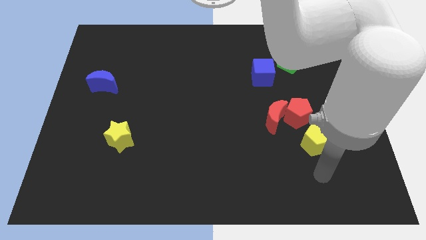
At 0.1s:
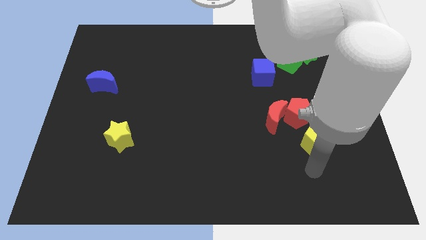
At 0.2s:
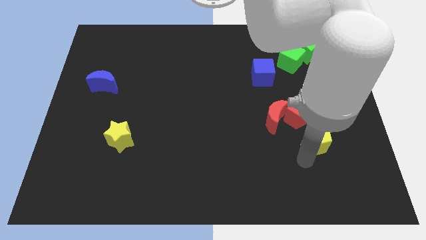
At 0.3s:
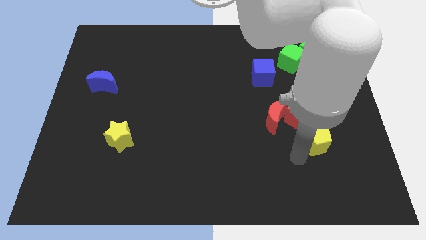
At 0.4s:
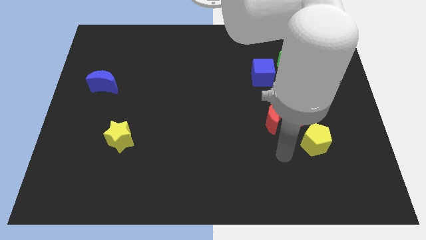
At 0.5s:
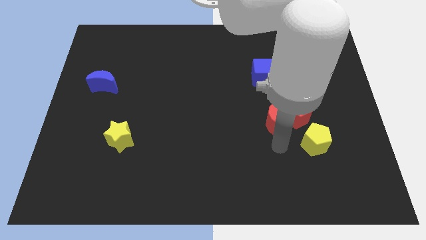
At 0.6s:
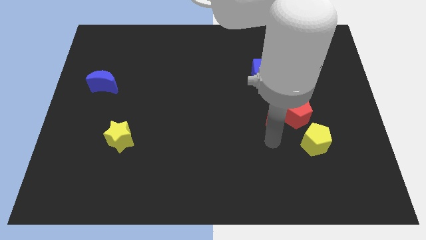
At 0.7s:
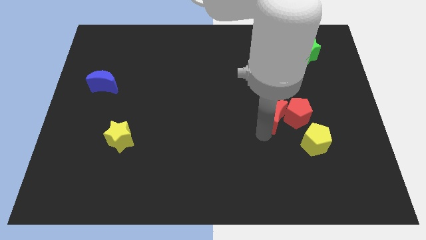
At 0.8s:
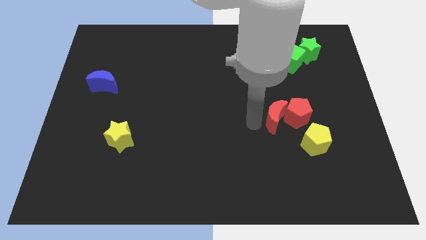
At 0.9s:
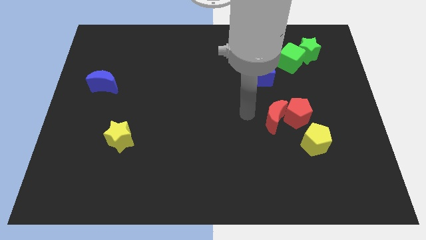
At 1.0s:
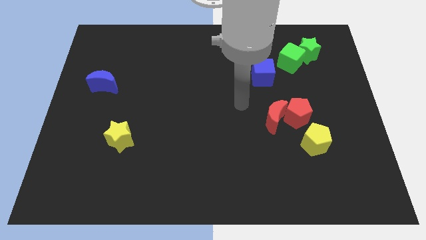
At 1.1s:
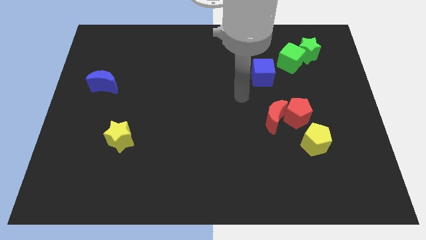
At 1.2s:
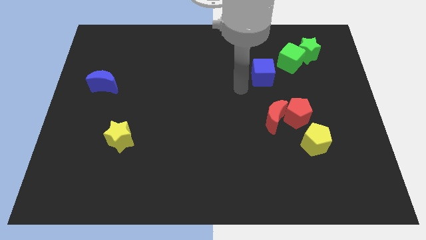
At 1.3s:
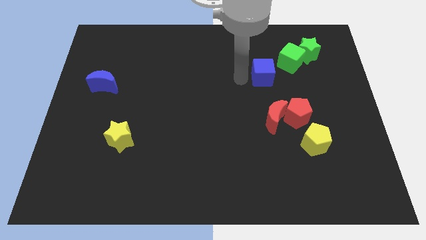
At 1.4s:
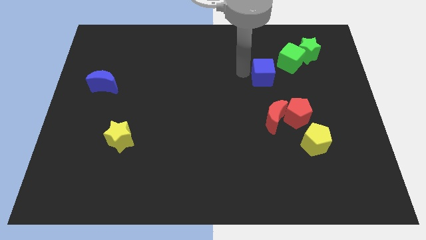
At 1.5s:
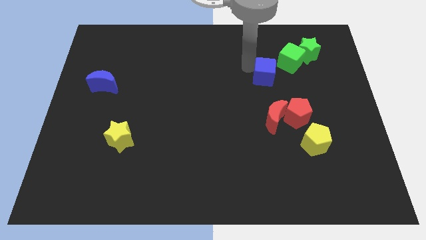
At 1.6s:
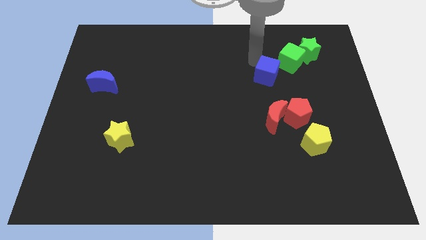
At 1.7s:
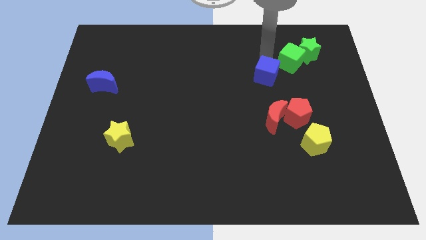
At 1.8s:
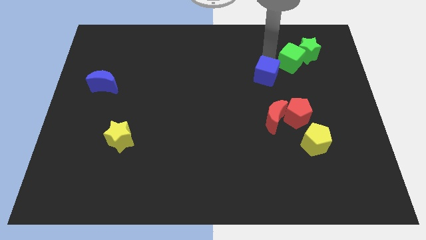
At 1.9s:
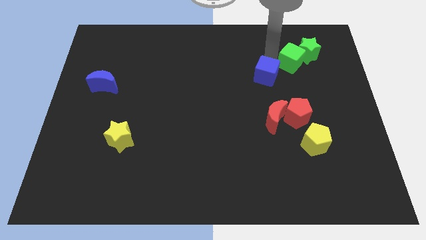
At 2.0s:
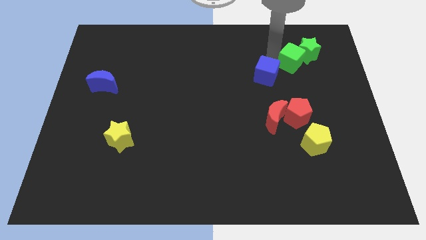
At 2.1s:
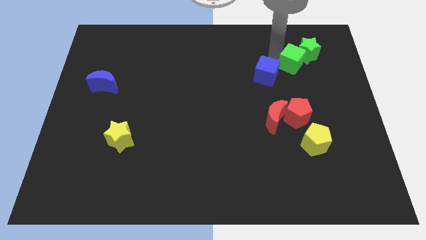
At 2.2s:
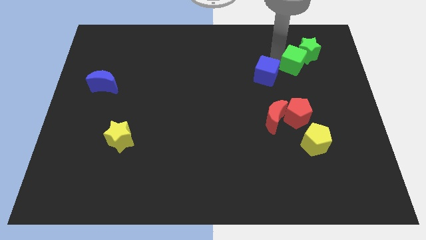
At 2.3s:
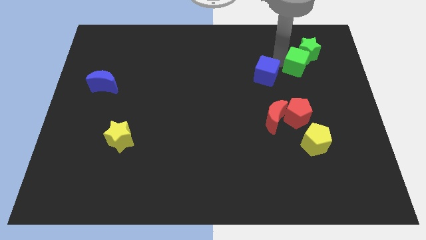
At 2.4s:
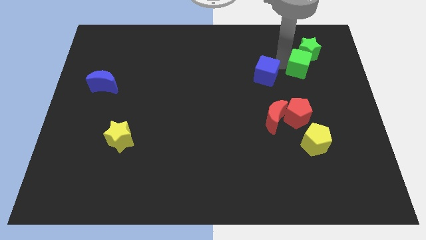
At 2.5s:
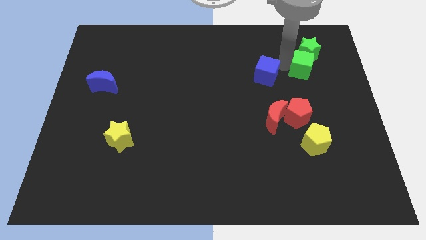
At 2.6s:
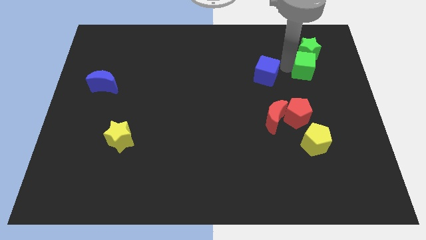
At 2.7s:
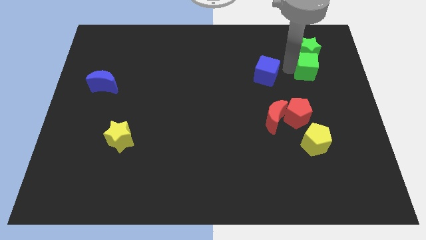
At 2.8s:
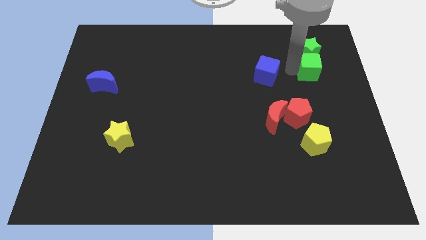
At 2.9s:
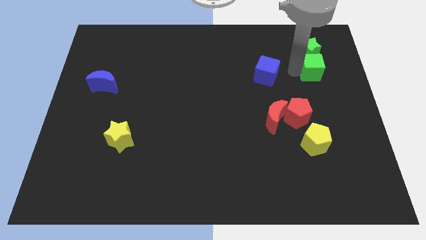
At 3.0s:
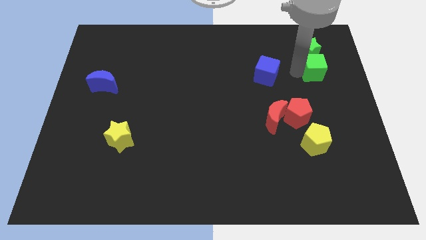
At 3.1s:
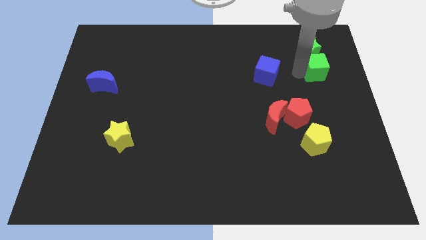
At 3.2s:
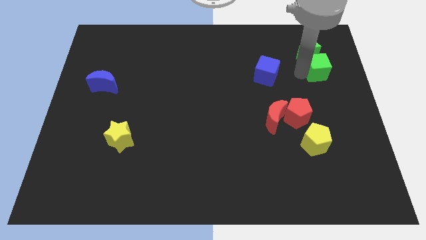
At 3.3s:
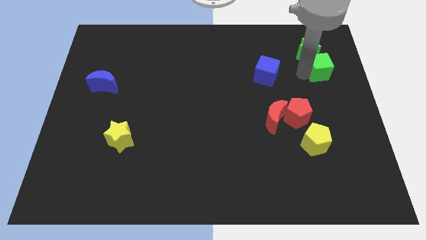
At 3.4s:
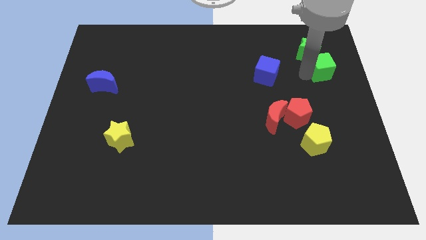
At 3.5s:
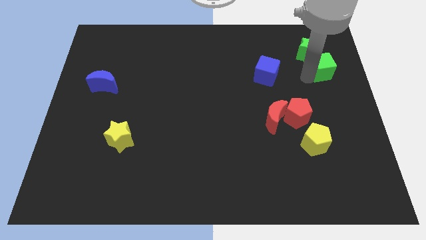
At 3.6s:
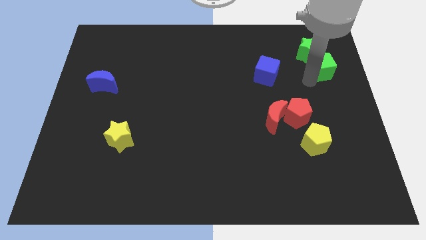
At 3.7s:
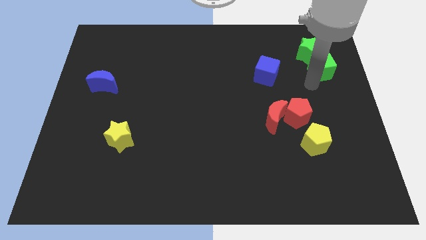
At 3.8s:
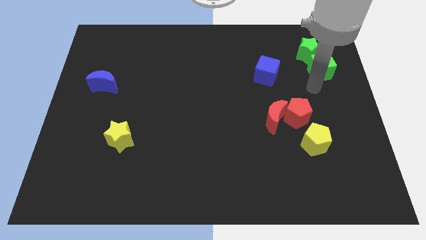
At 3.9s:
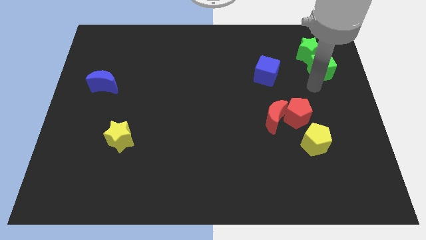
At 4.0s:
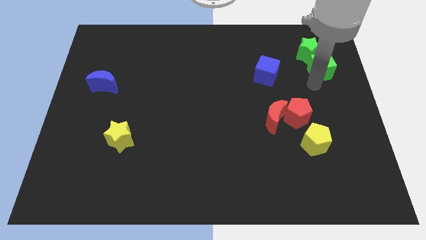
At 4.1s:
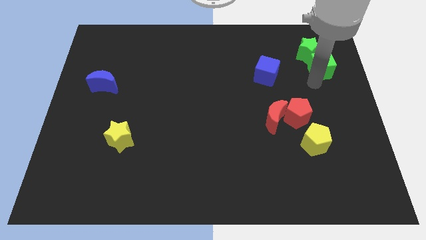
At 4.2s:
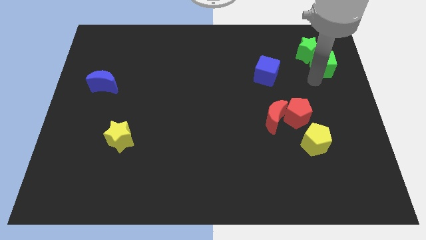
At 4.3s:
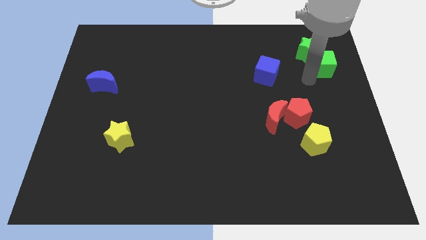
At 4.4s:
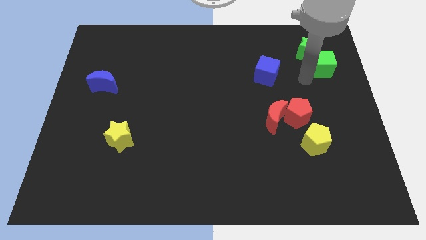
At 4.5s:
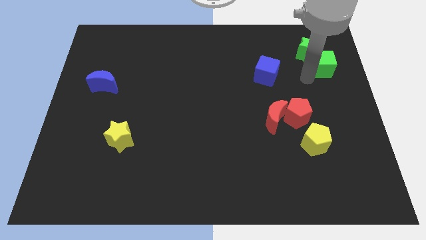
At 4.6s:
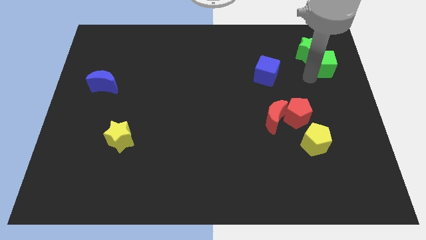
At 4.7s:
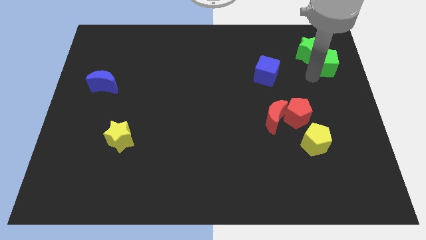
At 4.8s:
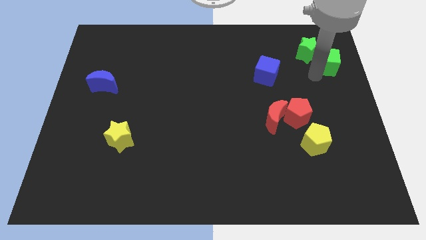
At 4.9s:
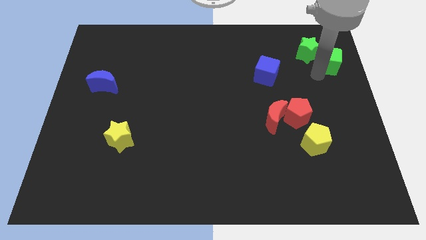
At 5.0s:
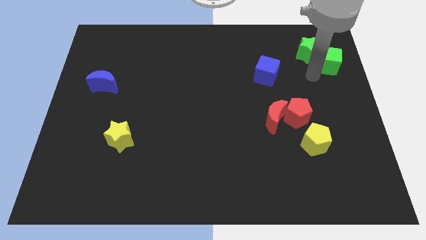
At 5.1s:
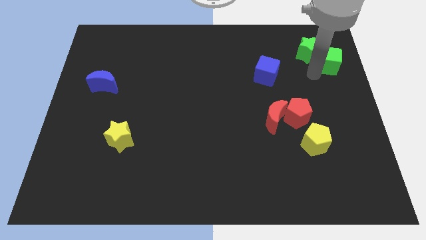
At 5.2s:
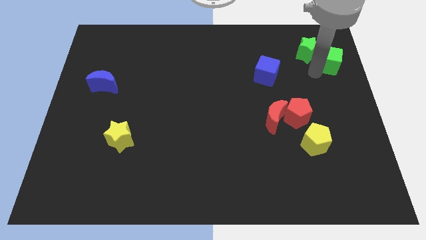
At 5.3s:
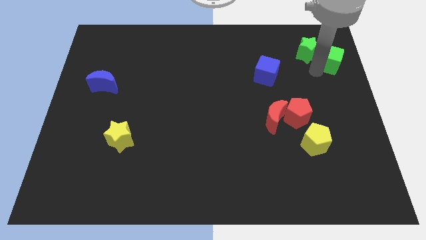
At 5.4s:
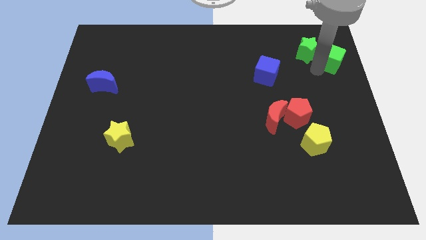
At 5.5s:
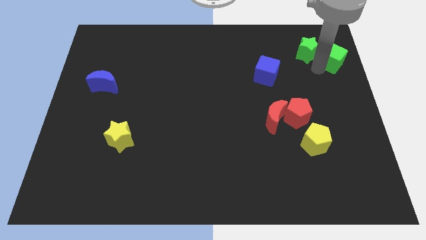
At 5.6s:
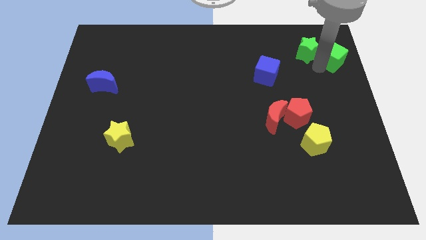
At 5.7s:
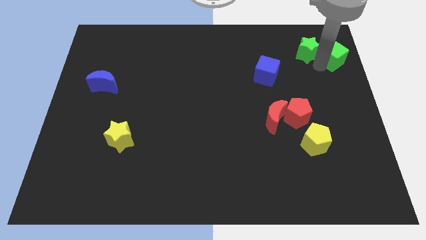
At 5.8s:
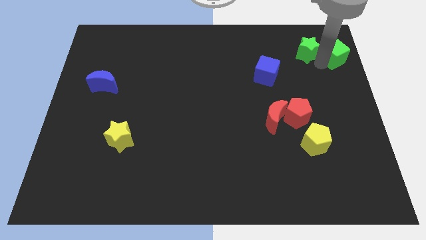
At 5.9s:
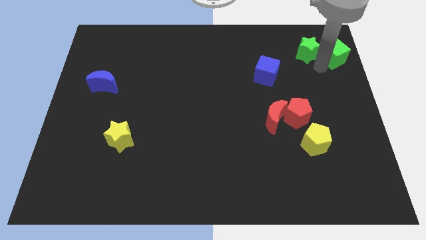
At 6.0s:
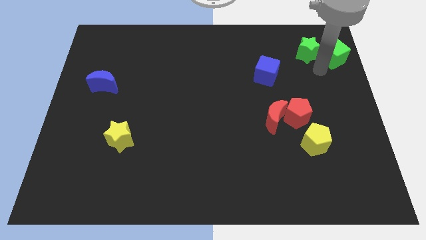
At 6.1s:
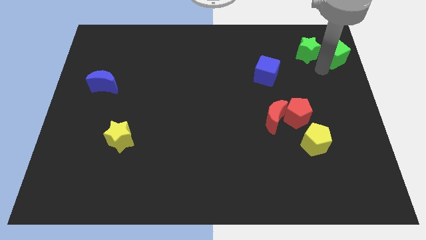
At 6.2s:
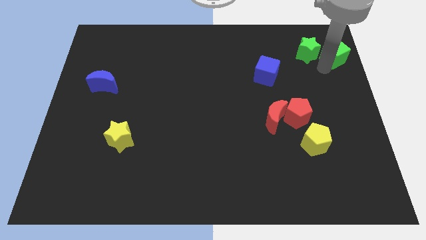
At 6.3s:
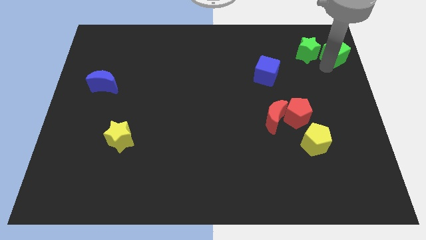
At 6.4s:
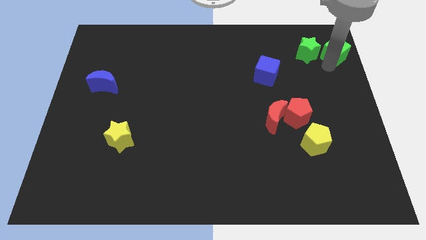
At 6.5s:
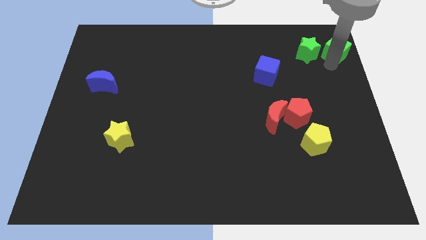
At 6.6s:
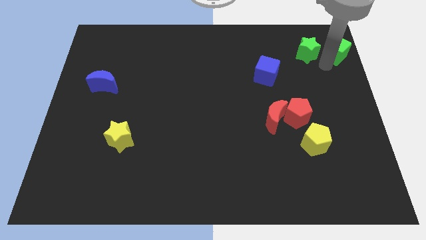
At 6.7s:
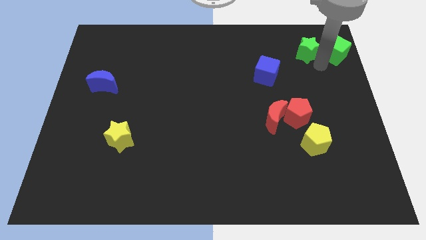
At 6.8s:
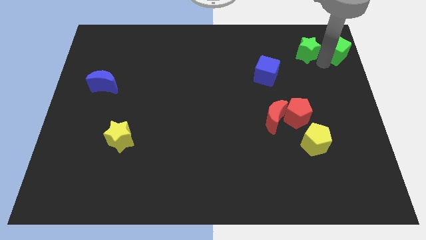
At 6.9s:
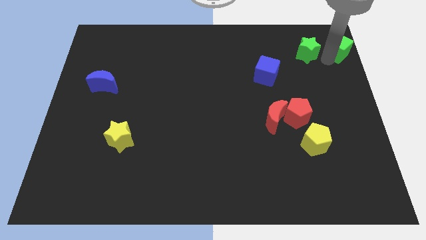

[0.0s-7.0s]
slide the green cube to the top right corner
